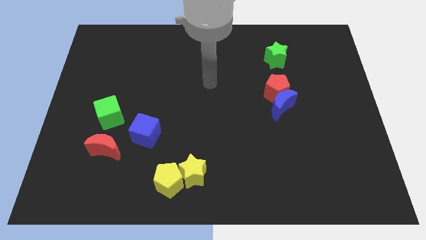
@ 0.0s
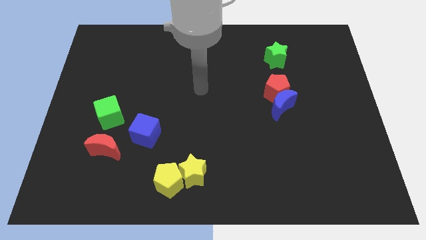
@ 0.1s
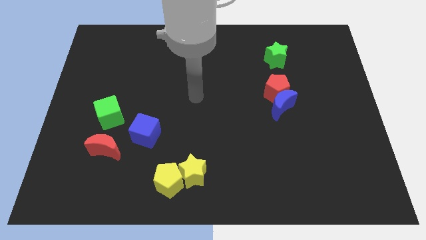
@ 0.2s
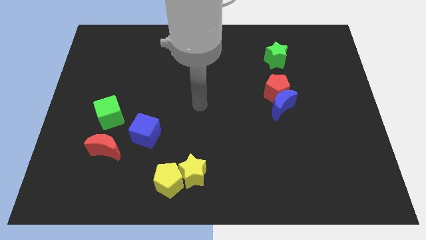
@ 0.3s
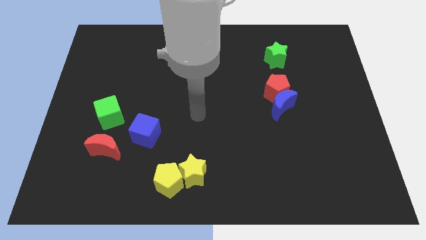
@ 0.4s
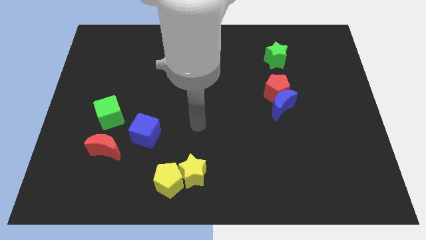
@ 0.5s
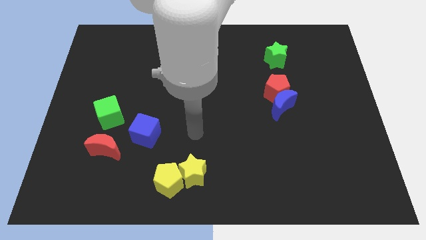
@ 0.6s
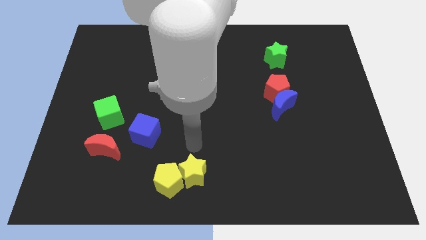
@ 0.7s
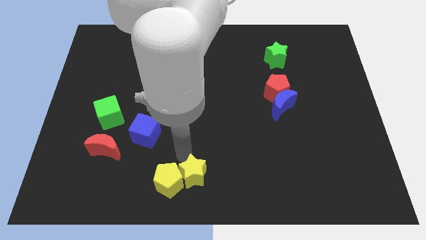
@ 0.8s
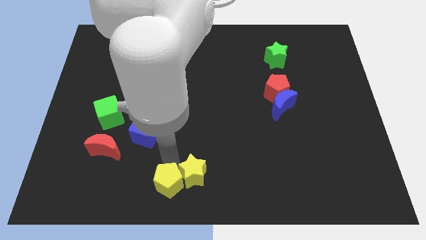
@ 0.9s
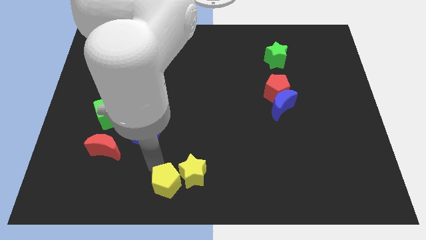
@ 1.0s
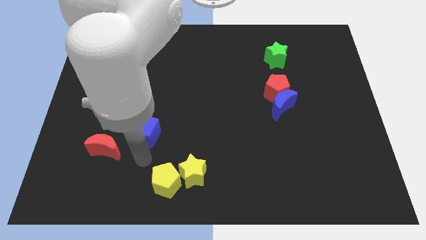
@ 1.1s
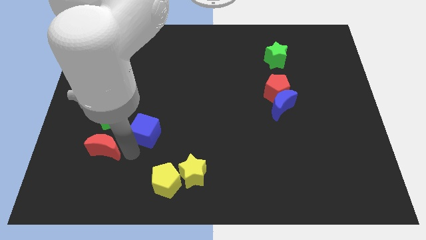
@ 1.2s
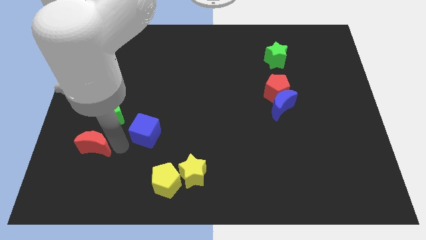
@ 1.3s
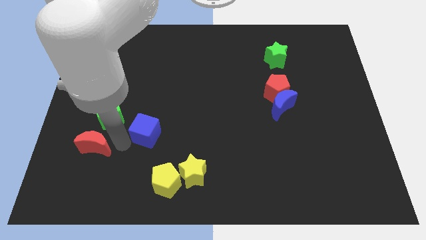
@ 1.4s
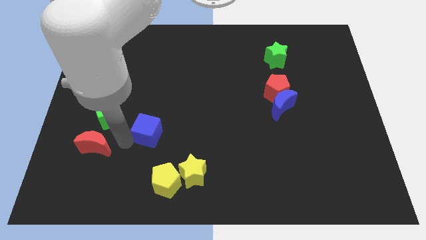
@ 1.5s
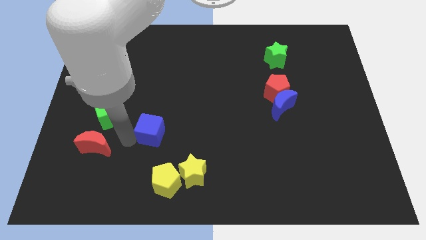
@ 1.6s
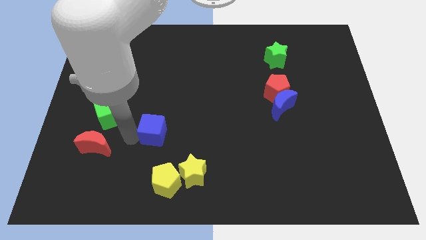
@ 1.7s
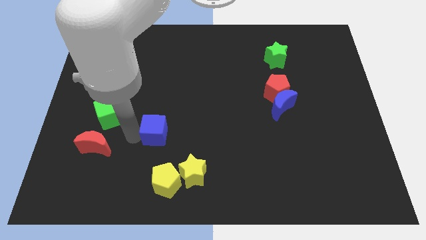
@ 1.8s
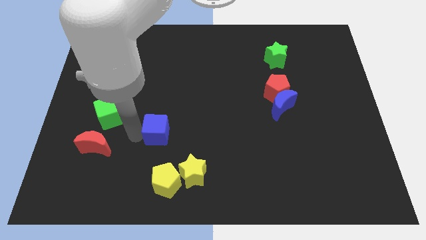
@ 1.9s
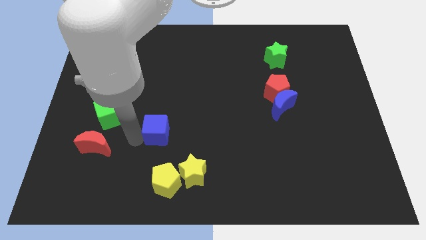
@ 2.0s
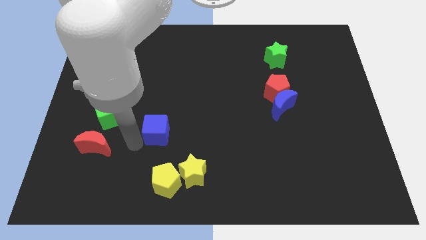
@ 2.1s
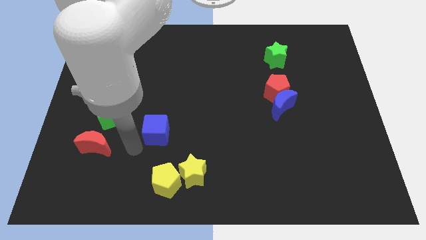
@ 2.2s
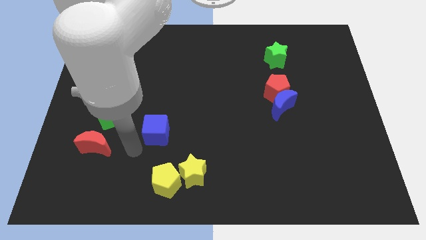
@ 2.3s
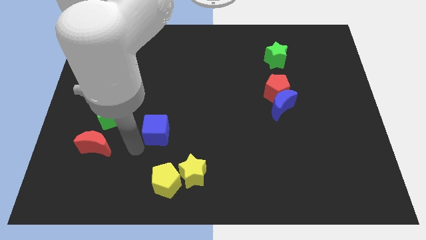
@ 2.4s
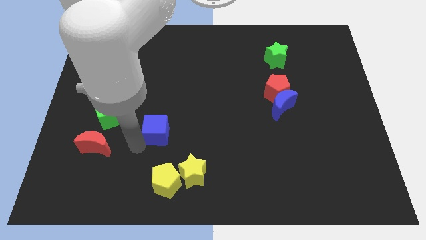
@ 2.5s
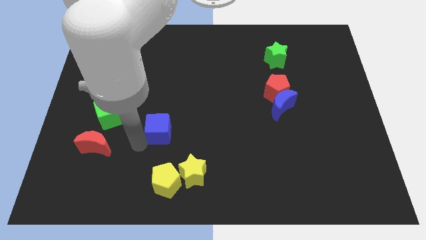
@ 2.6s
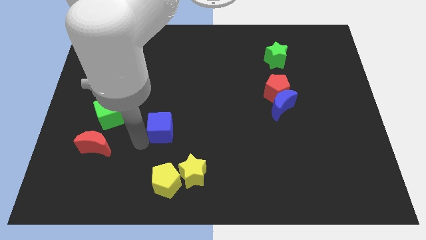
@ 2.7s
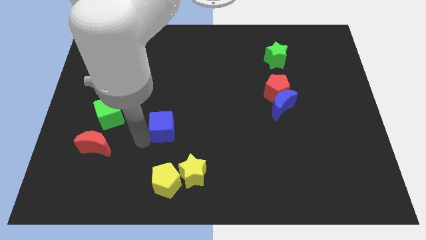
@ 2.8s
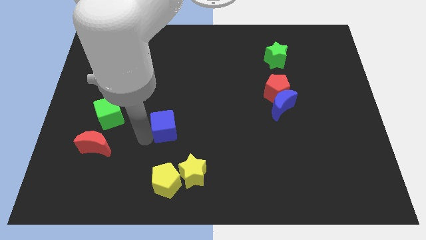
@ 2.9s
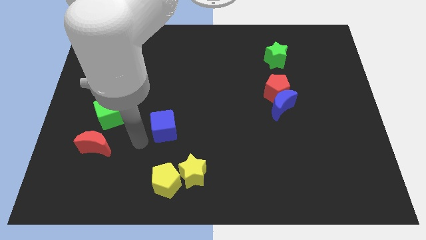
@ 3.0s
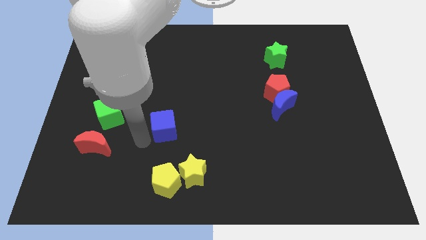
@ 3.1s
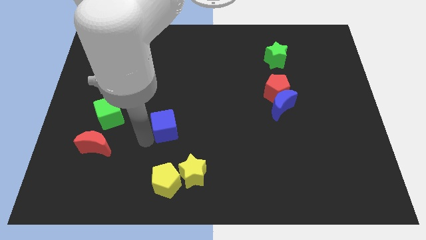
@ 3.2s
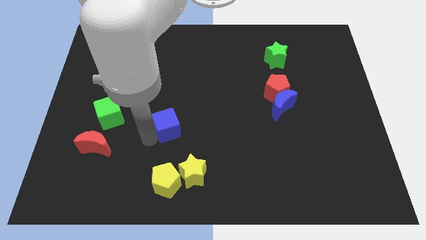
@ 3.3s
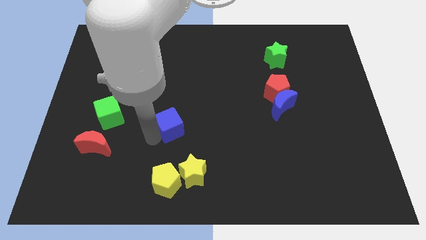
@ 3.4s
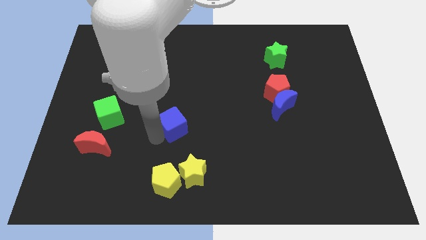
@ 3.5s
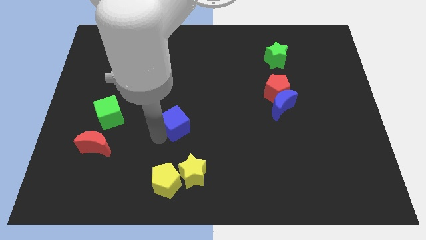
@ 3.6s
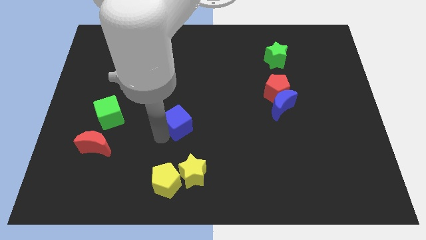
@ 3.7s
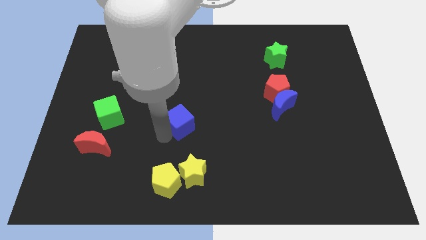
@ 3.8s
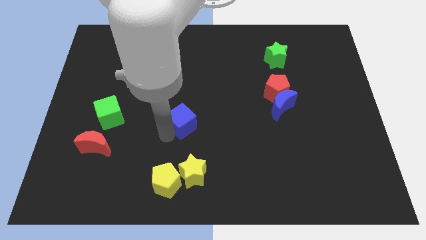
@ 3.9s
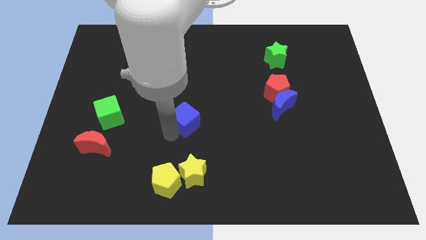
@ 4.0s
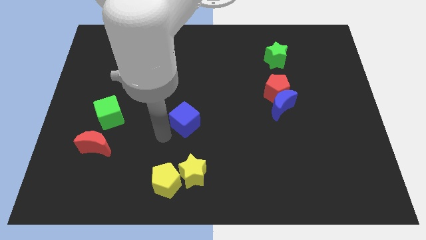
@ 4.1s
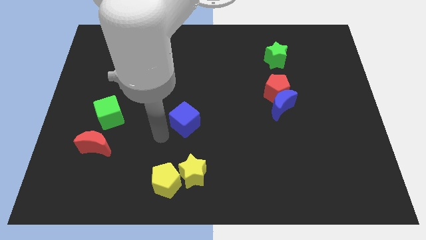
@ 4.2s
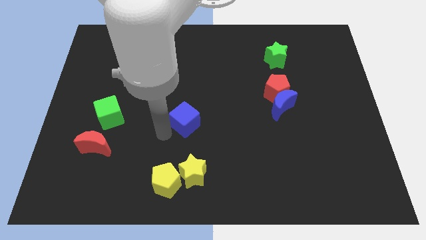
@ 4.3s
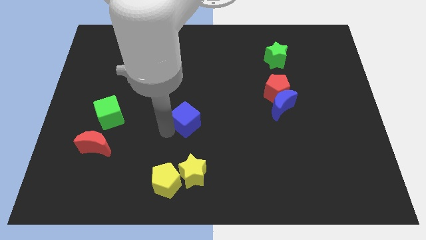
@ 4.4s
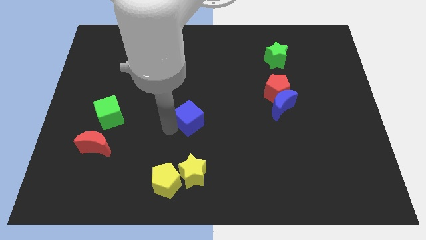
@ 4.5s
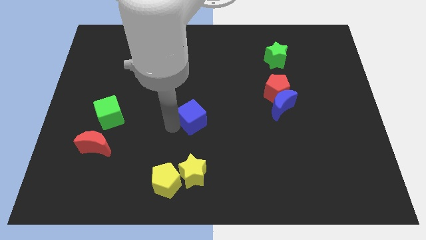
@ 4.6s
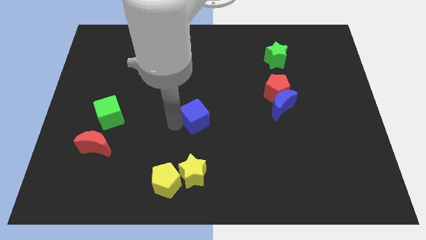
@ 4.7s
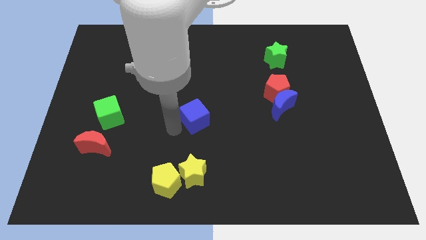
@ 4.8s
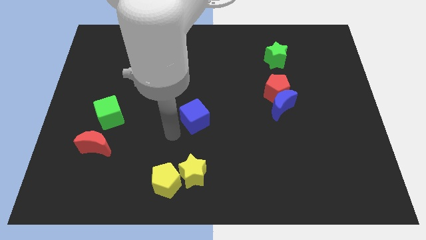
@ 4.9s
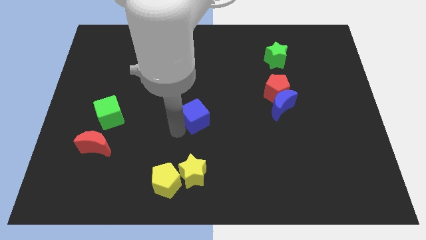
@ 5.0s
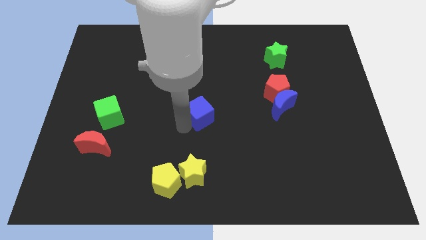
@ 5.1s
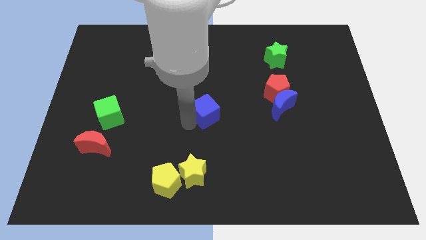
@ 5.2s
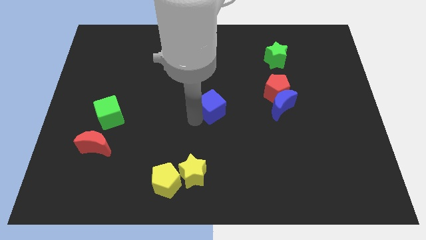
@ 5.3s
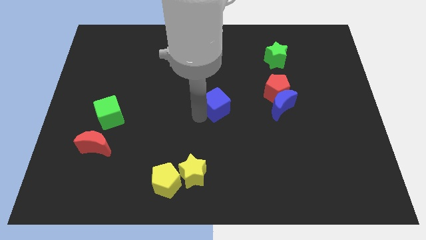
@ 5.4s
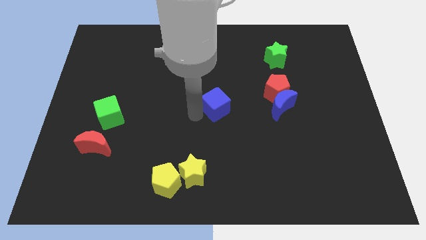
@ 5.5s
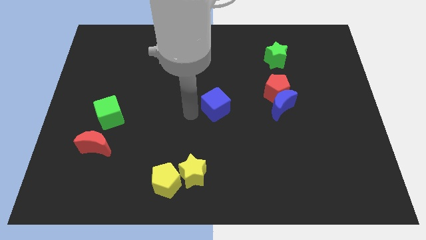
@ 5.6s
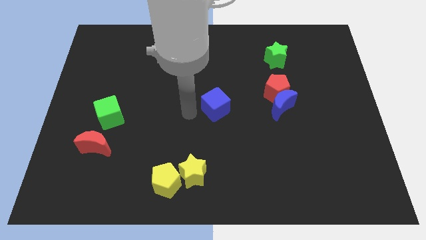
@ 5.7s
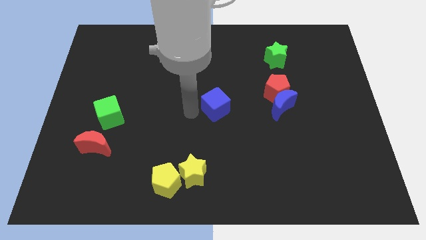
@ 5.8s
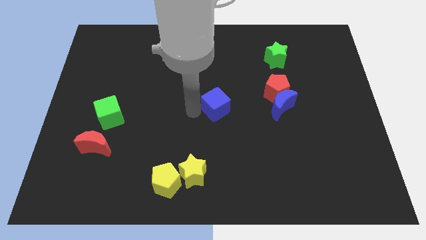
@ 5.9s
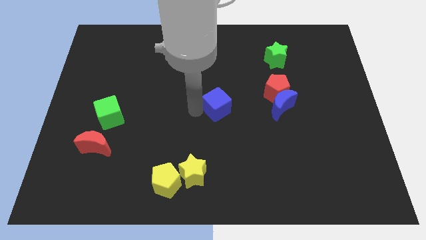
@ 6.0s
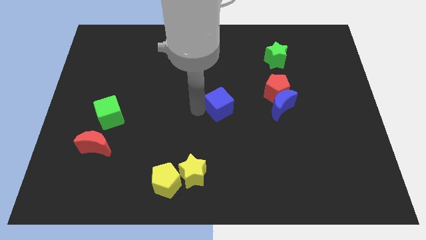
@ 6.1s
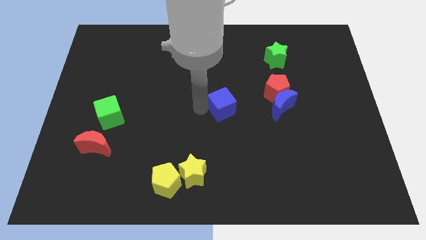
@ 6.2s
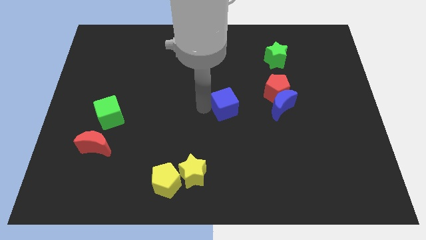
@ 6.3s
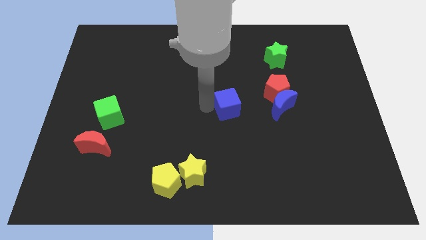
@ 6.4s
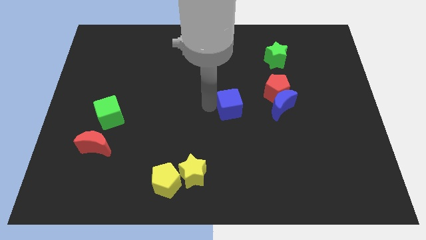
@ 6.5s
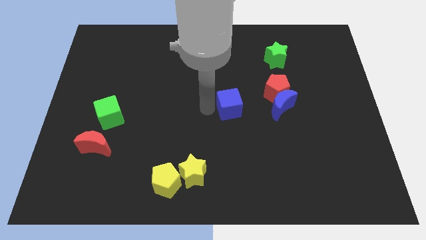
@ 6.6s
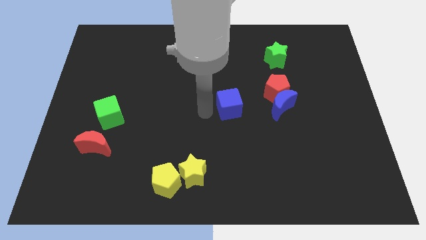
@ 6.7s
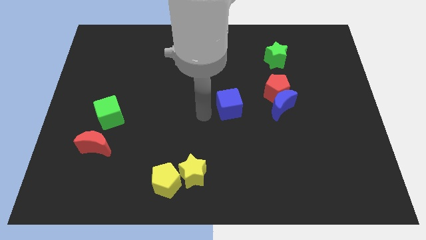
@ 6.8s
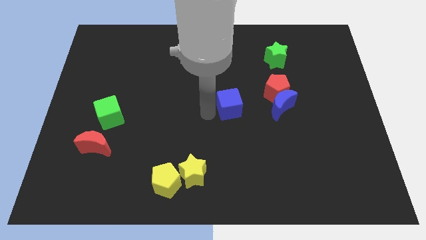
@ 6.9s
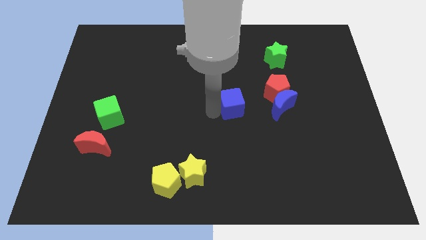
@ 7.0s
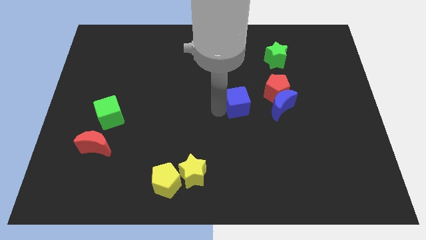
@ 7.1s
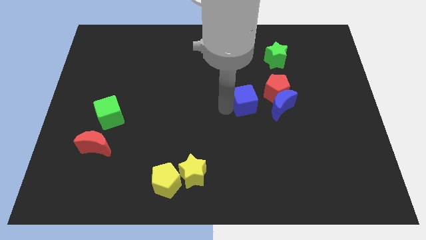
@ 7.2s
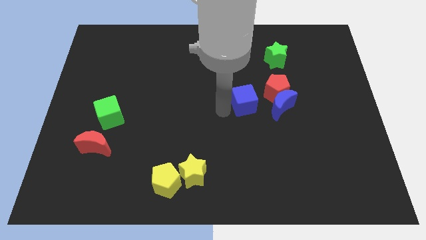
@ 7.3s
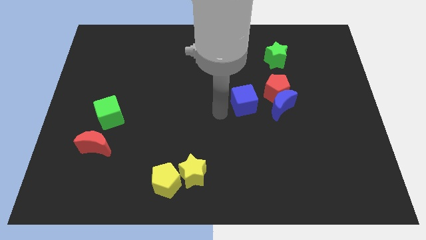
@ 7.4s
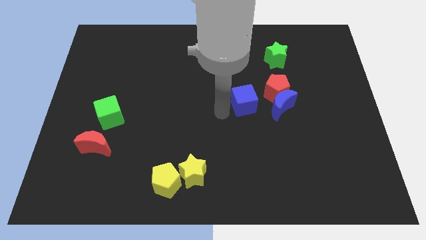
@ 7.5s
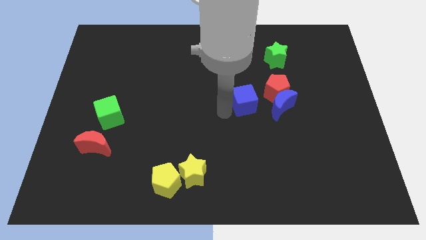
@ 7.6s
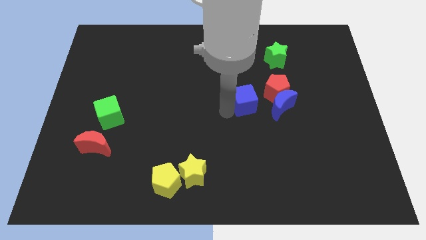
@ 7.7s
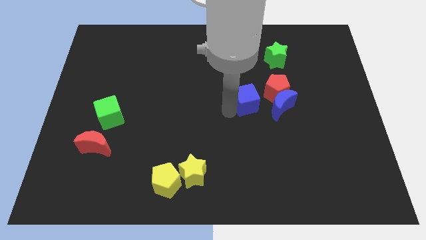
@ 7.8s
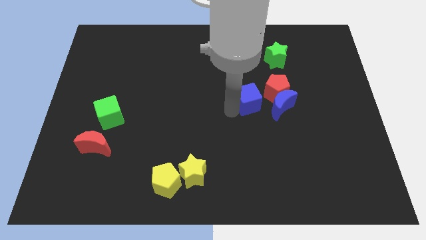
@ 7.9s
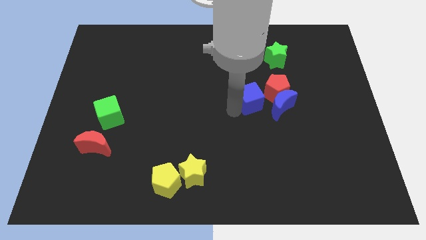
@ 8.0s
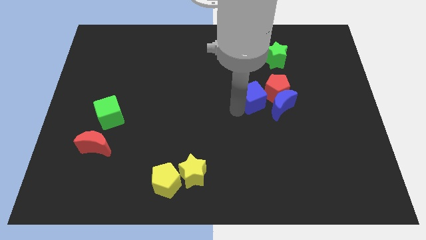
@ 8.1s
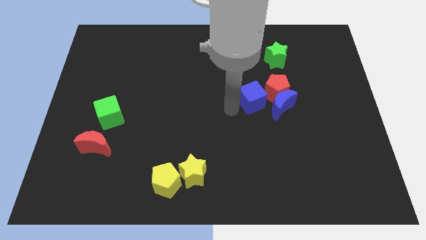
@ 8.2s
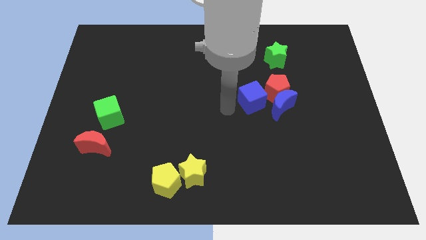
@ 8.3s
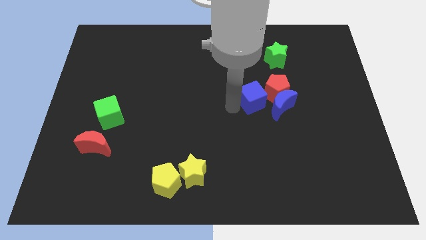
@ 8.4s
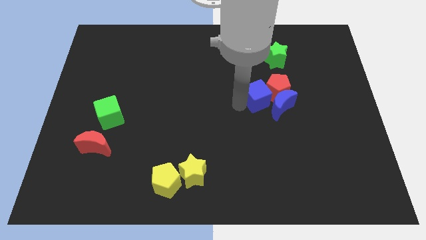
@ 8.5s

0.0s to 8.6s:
move the blue cube towards the red pentagon
